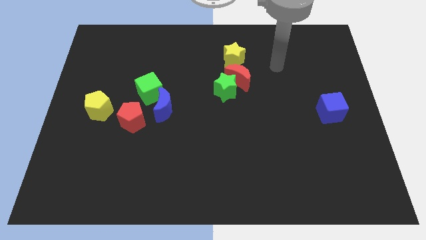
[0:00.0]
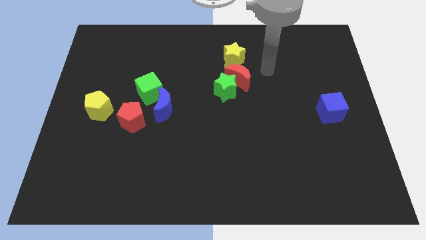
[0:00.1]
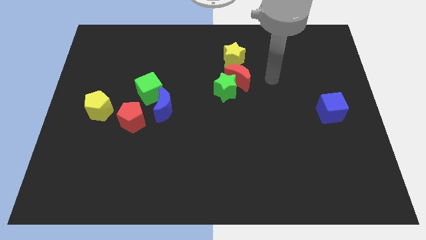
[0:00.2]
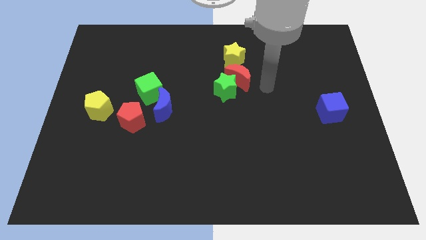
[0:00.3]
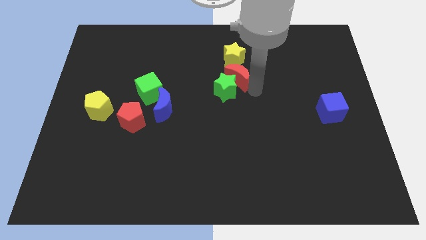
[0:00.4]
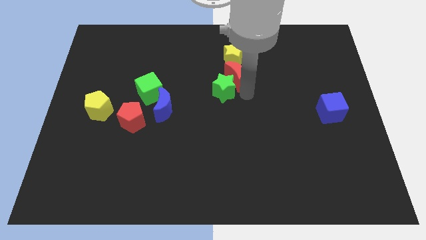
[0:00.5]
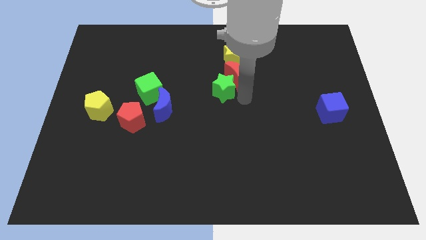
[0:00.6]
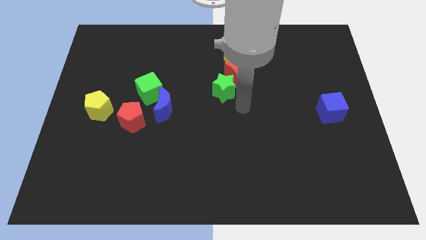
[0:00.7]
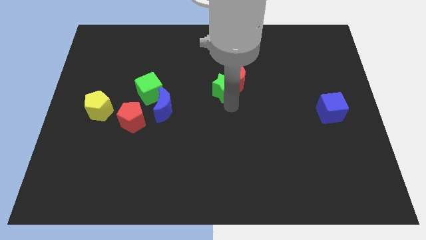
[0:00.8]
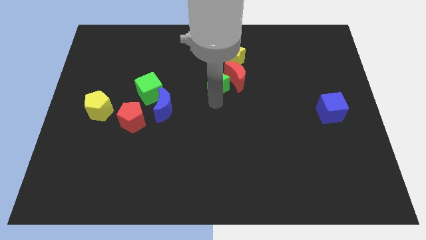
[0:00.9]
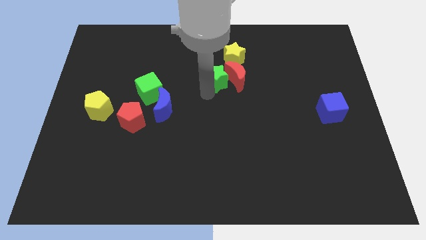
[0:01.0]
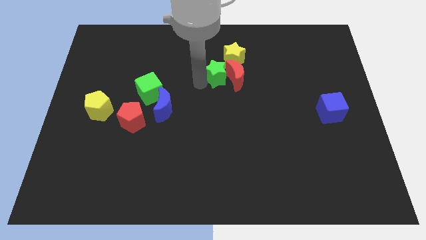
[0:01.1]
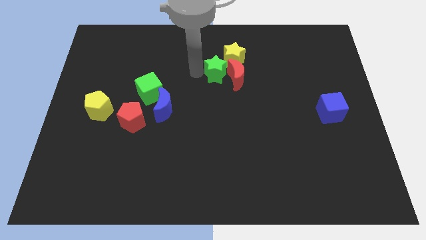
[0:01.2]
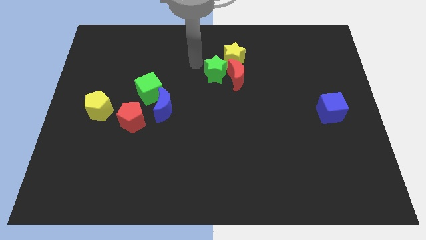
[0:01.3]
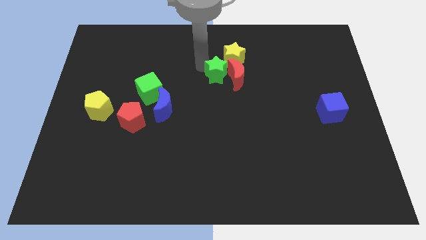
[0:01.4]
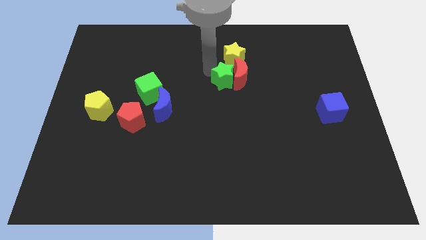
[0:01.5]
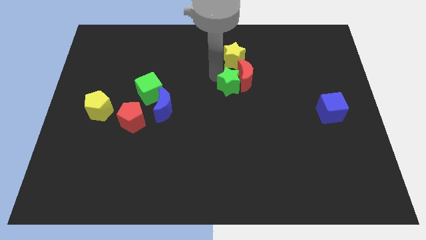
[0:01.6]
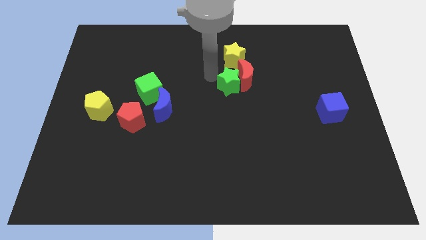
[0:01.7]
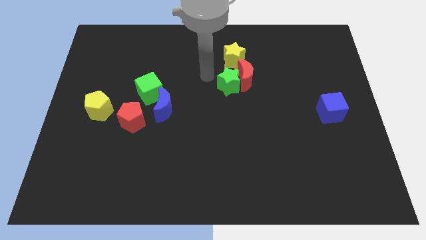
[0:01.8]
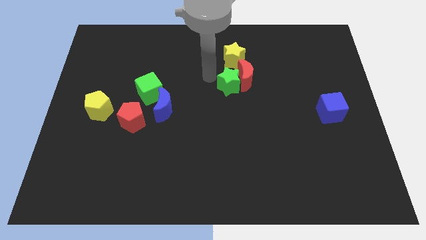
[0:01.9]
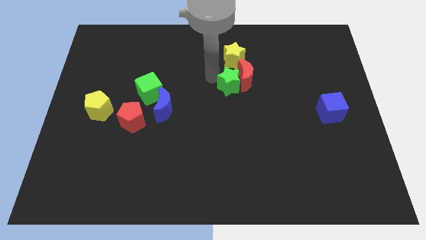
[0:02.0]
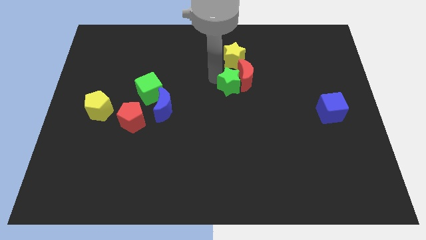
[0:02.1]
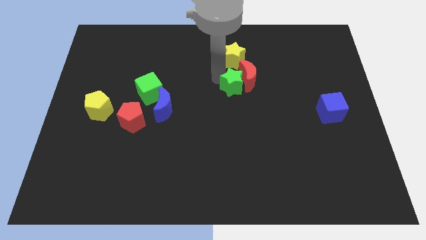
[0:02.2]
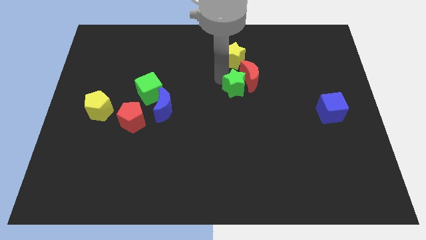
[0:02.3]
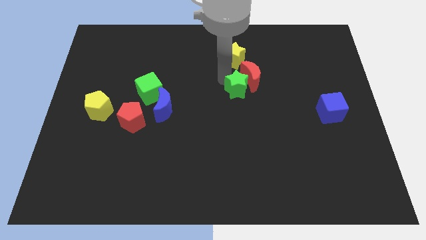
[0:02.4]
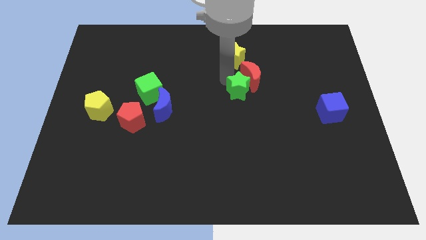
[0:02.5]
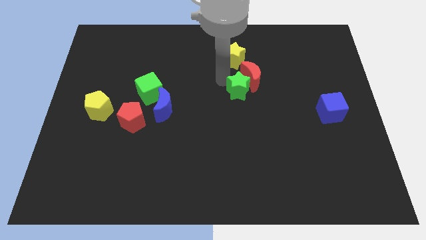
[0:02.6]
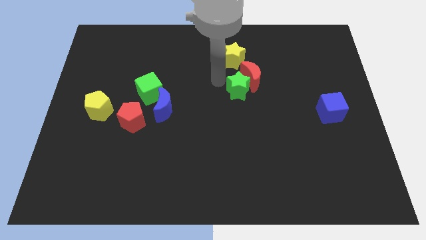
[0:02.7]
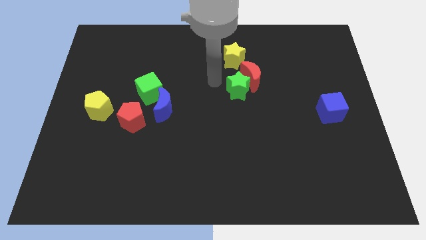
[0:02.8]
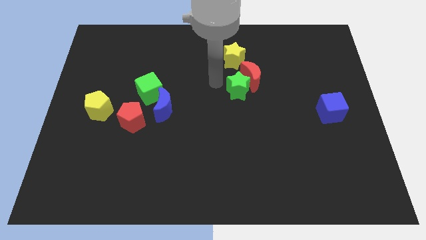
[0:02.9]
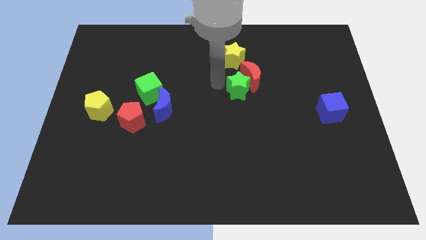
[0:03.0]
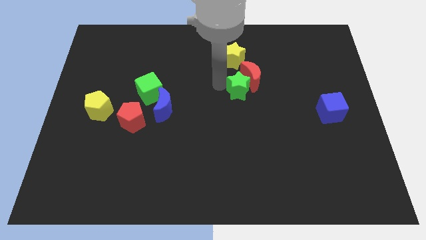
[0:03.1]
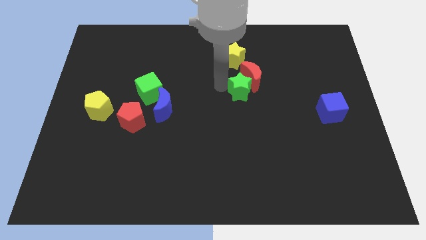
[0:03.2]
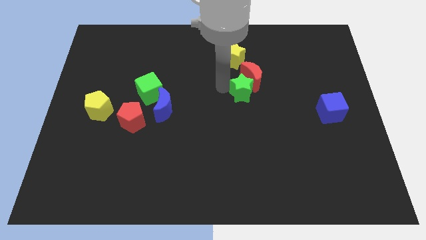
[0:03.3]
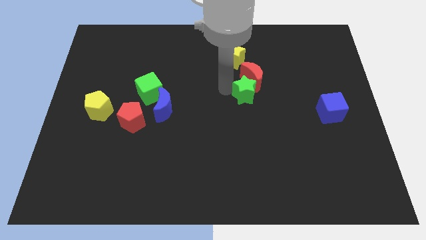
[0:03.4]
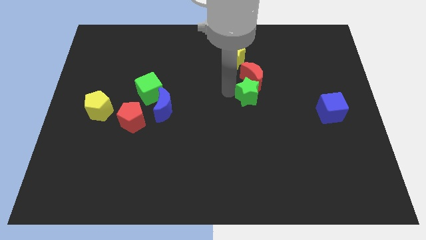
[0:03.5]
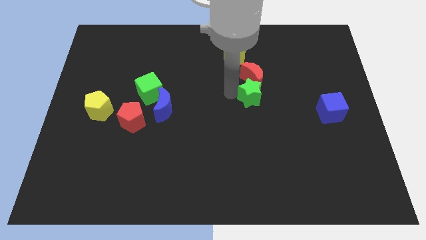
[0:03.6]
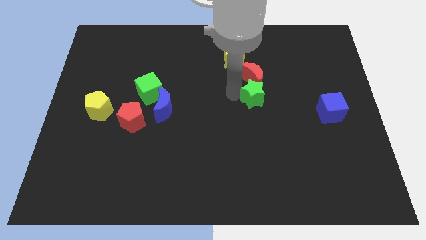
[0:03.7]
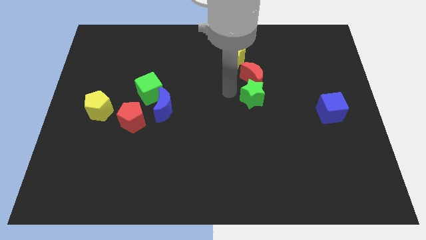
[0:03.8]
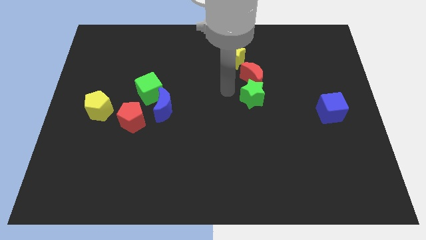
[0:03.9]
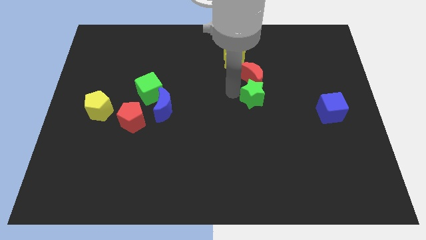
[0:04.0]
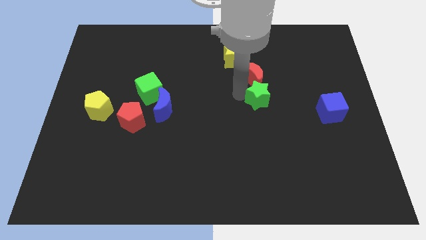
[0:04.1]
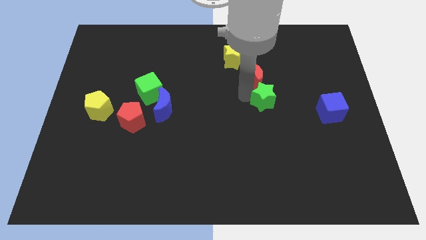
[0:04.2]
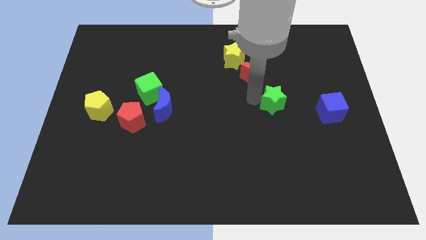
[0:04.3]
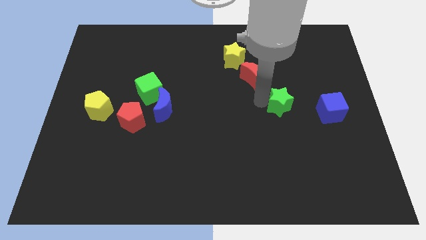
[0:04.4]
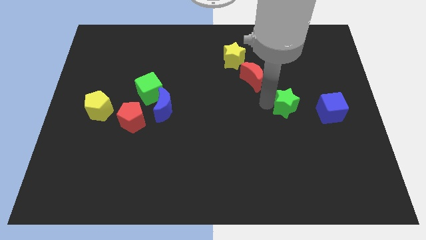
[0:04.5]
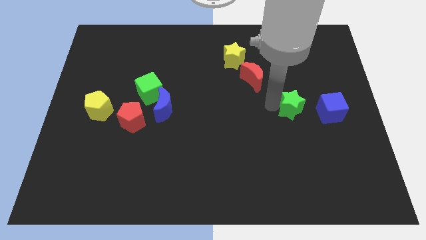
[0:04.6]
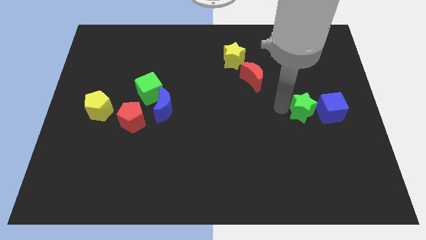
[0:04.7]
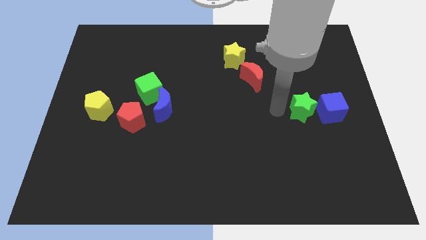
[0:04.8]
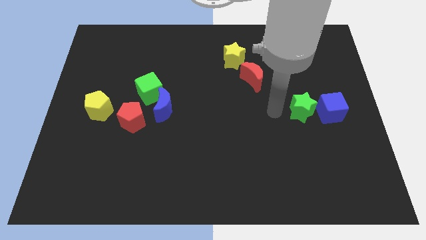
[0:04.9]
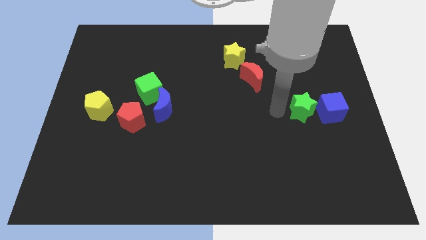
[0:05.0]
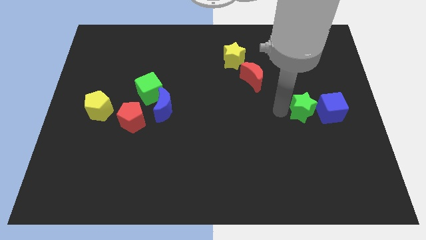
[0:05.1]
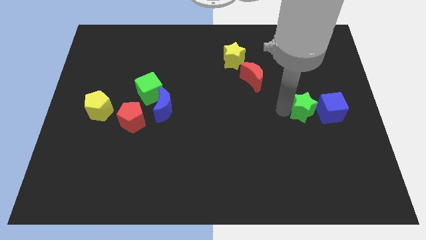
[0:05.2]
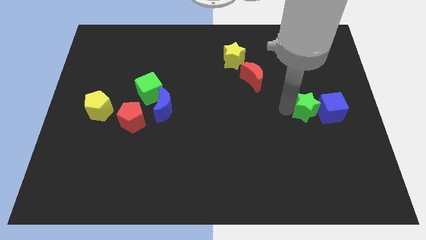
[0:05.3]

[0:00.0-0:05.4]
put the green star towards the blue cube

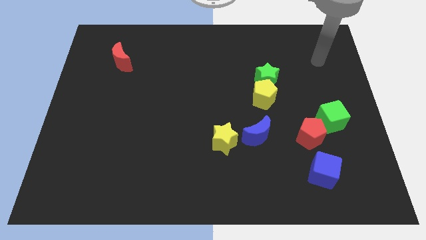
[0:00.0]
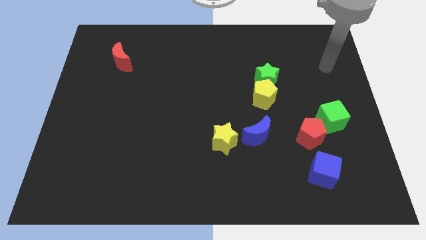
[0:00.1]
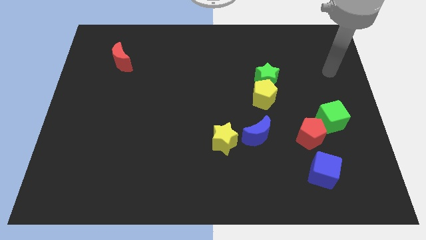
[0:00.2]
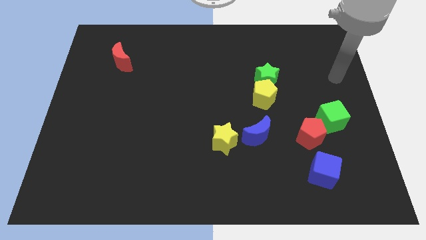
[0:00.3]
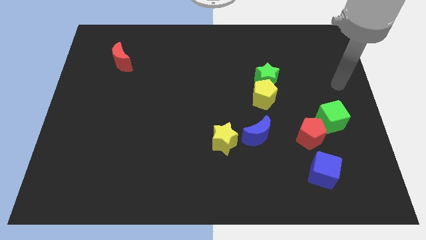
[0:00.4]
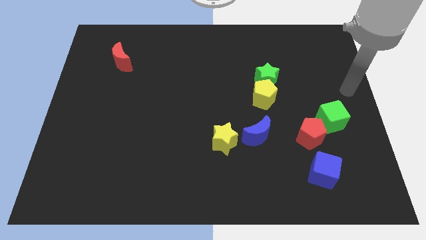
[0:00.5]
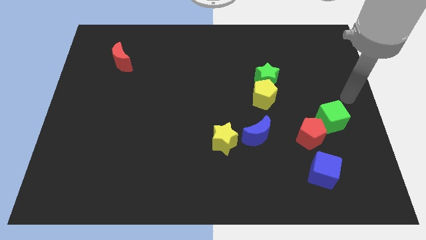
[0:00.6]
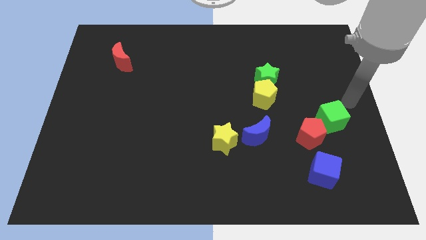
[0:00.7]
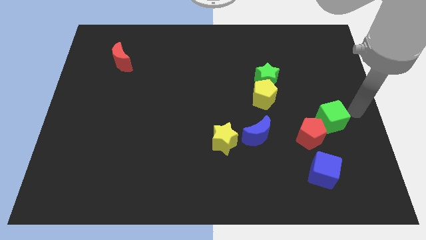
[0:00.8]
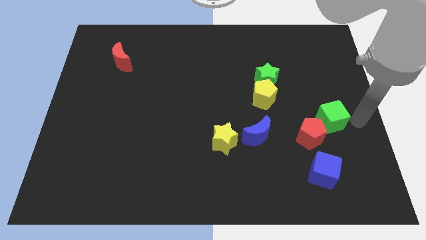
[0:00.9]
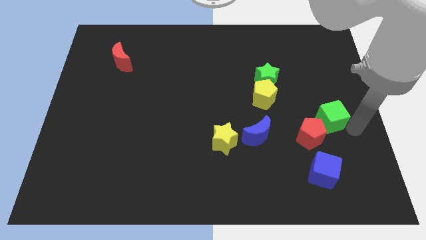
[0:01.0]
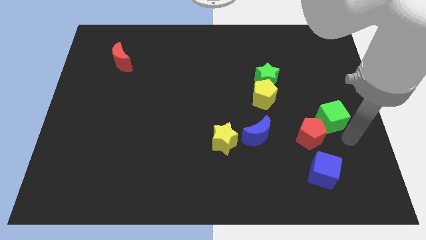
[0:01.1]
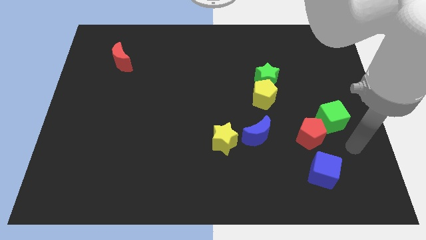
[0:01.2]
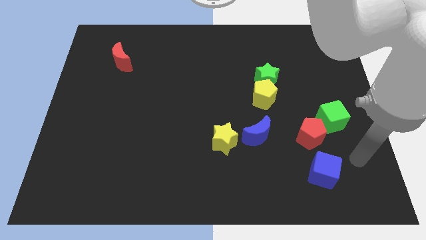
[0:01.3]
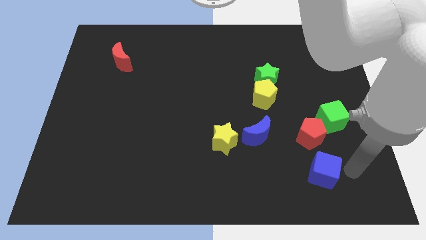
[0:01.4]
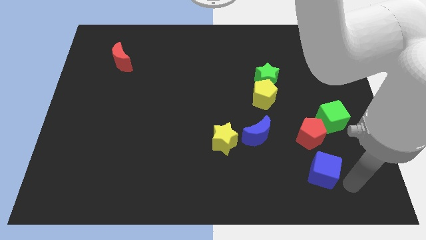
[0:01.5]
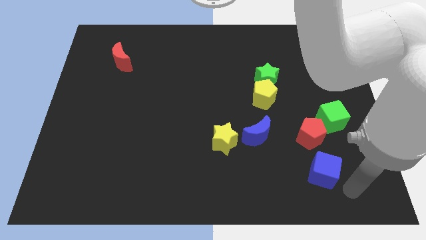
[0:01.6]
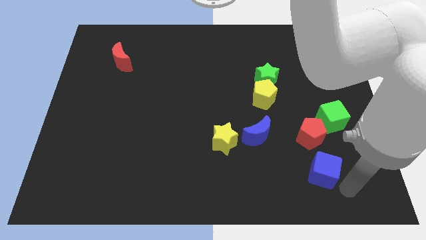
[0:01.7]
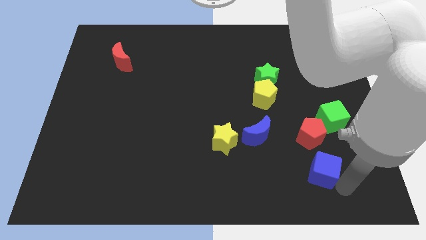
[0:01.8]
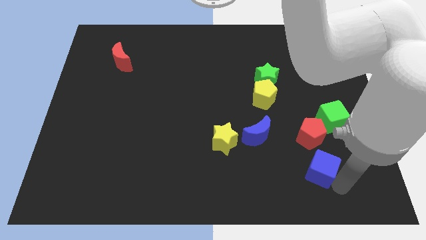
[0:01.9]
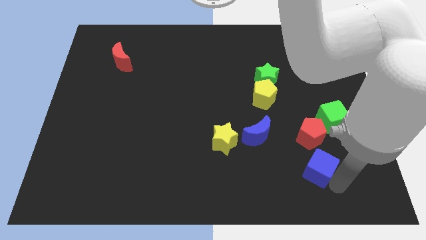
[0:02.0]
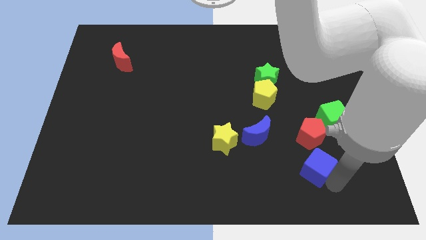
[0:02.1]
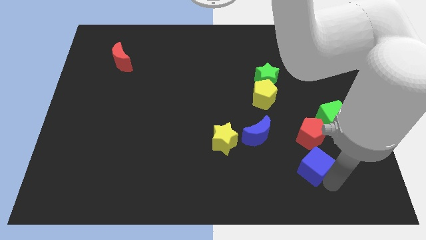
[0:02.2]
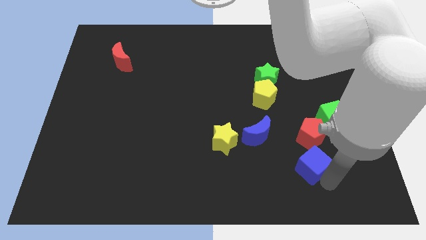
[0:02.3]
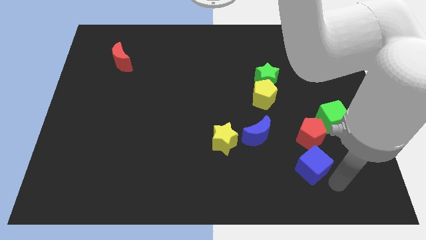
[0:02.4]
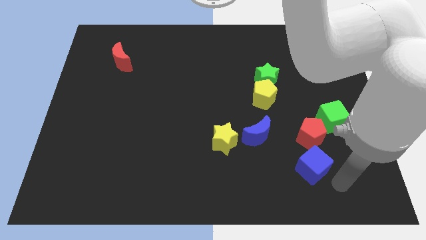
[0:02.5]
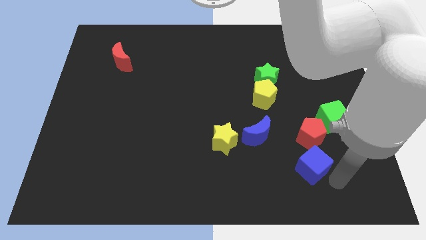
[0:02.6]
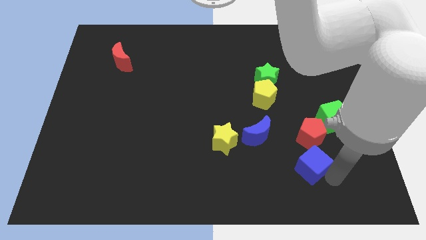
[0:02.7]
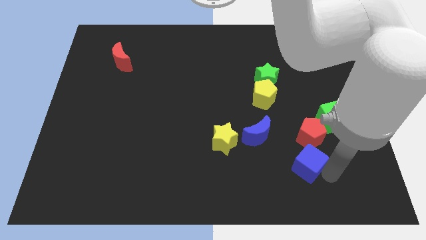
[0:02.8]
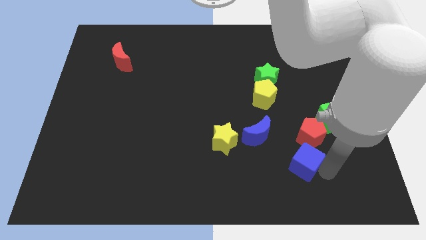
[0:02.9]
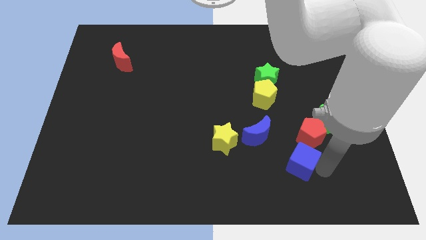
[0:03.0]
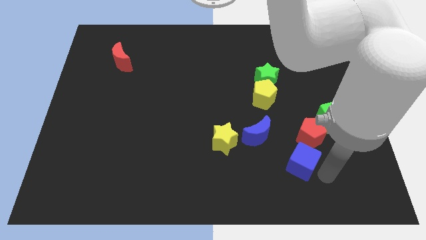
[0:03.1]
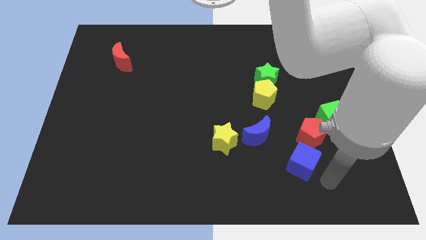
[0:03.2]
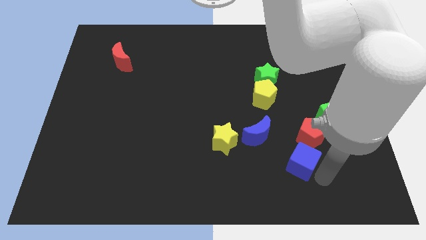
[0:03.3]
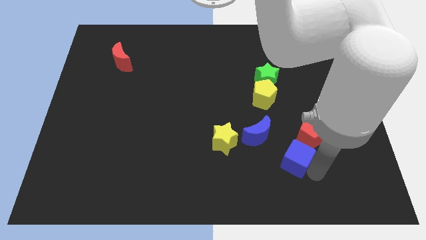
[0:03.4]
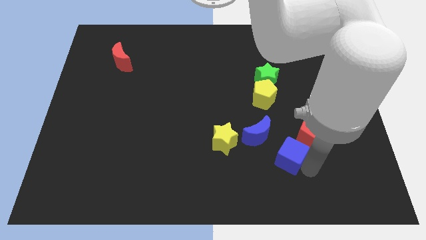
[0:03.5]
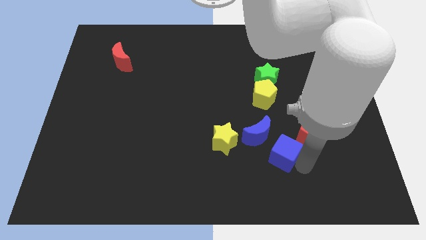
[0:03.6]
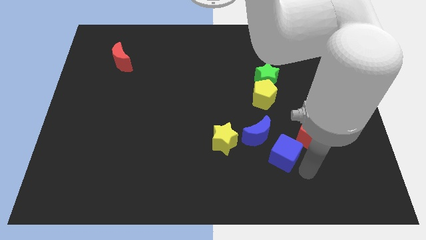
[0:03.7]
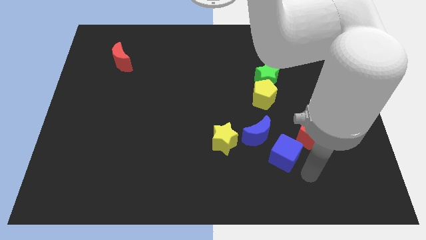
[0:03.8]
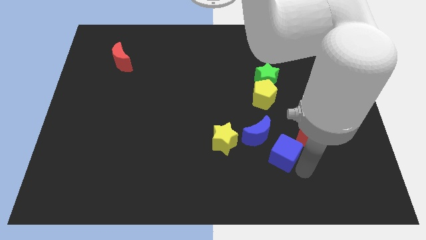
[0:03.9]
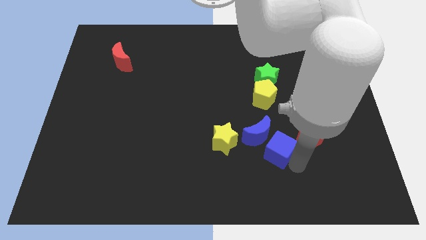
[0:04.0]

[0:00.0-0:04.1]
push the blue cube close to the blue moon
